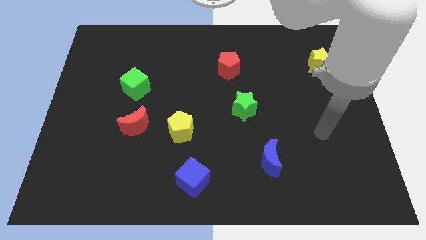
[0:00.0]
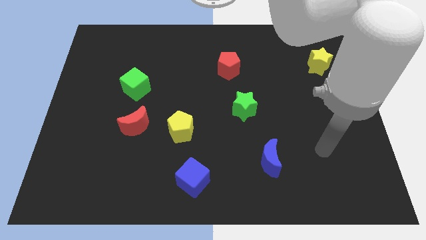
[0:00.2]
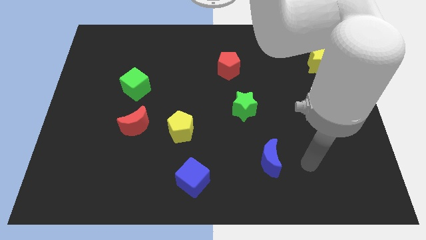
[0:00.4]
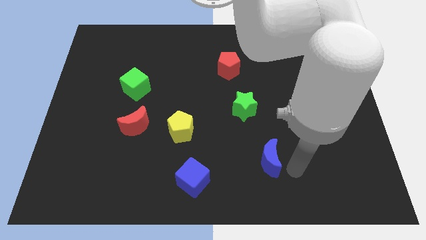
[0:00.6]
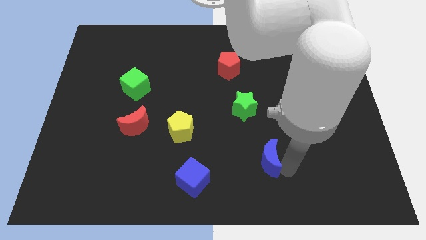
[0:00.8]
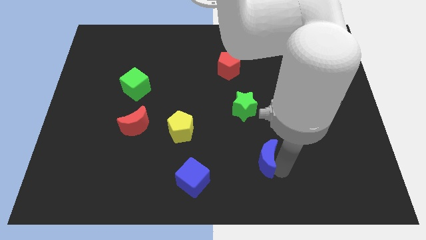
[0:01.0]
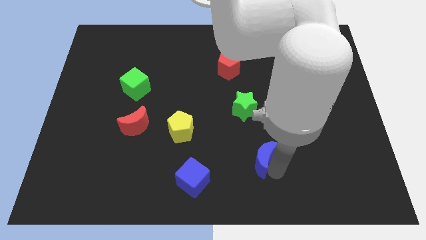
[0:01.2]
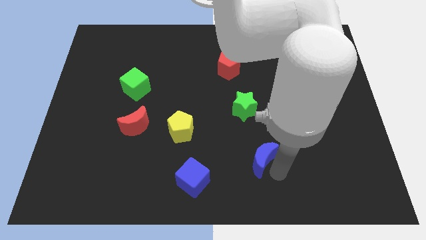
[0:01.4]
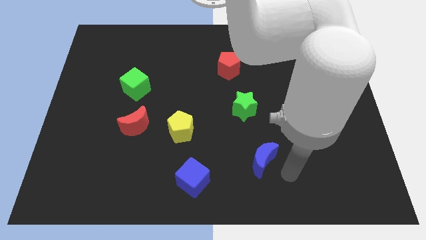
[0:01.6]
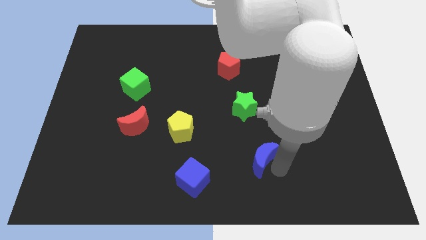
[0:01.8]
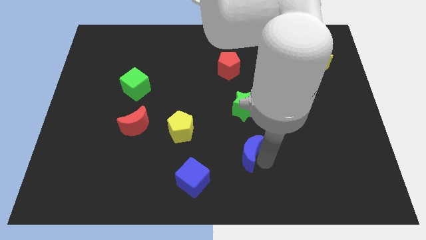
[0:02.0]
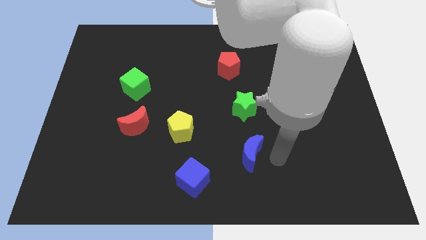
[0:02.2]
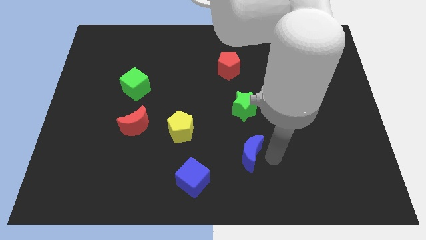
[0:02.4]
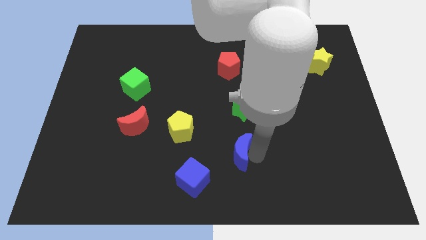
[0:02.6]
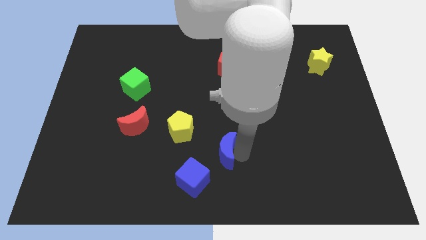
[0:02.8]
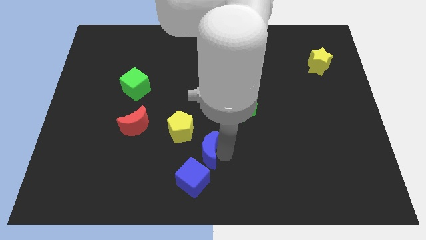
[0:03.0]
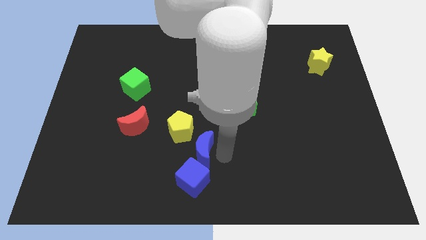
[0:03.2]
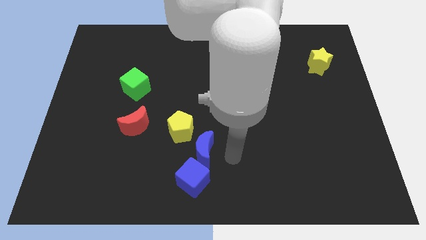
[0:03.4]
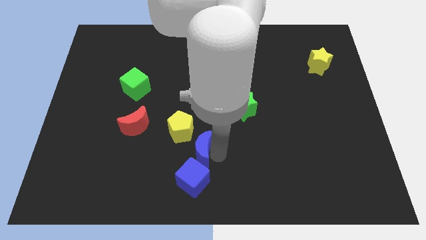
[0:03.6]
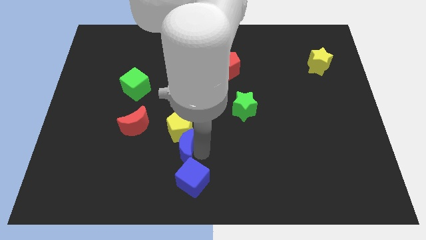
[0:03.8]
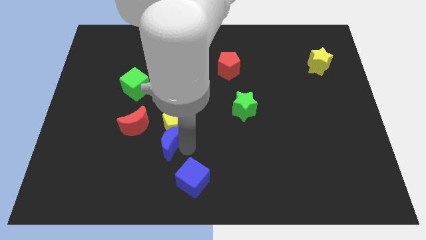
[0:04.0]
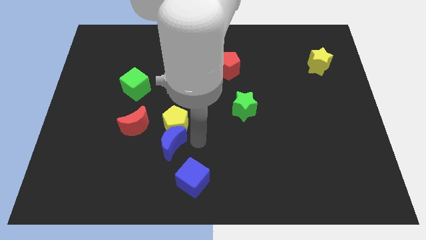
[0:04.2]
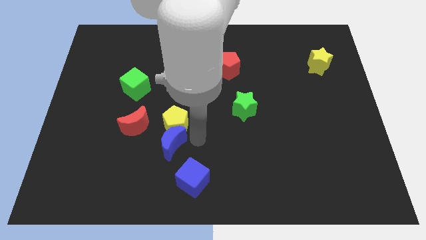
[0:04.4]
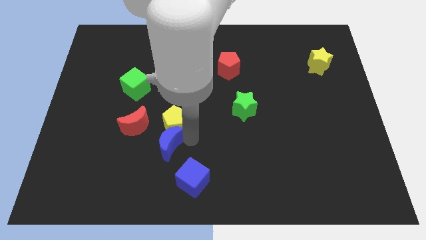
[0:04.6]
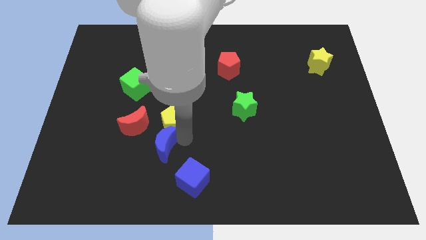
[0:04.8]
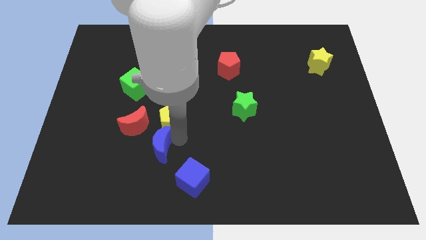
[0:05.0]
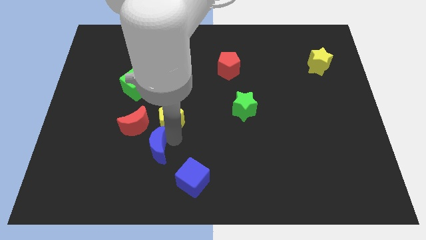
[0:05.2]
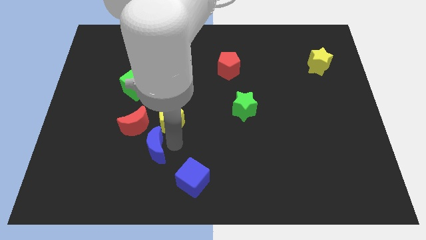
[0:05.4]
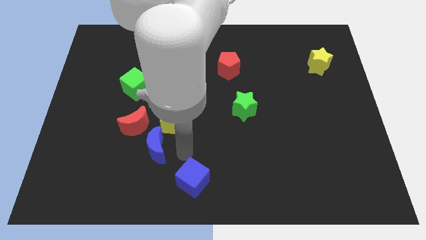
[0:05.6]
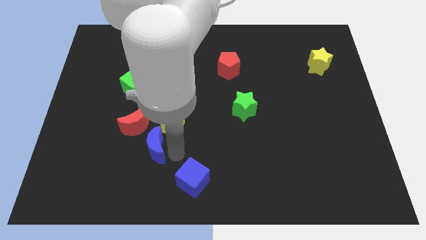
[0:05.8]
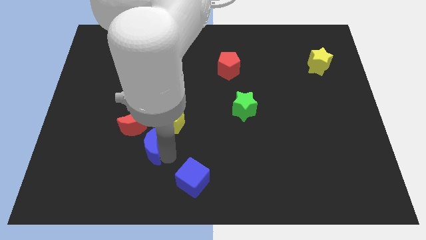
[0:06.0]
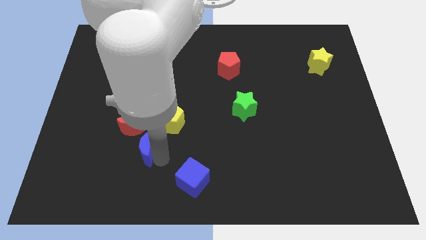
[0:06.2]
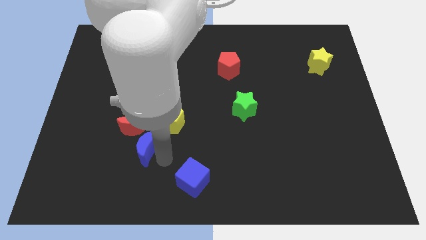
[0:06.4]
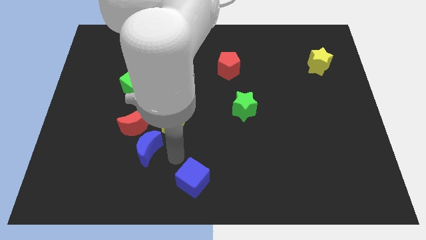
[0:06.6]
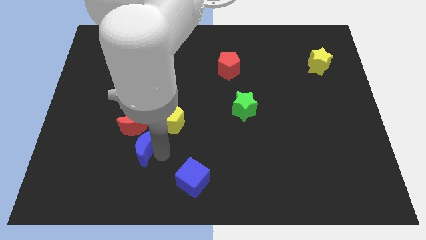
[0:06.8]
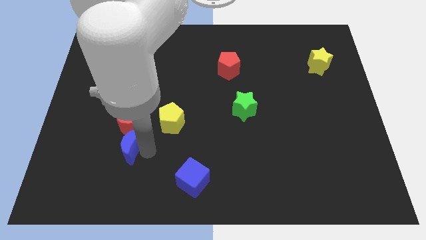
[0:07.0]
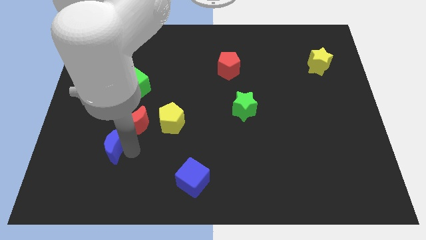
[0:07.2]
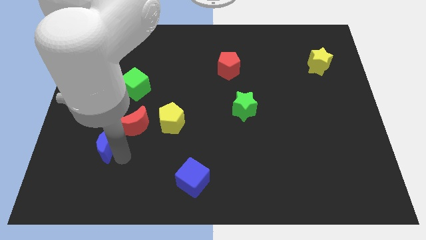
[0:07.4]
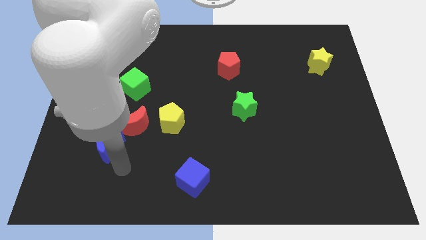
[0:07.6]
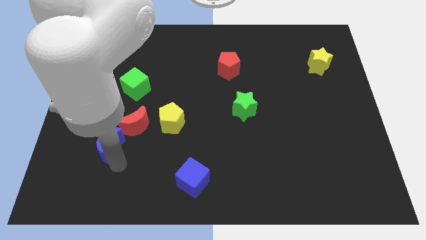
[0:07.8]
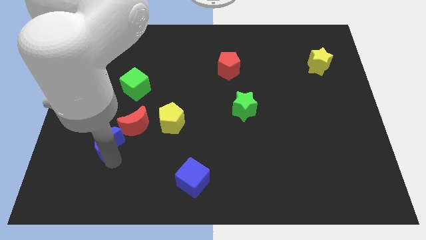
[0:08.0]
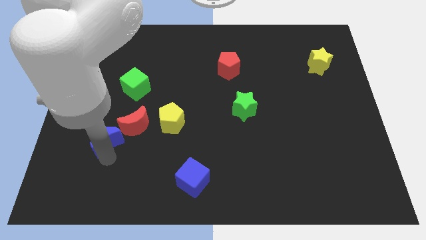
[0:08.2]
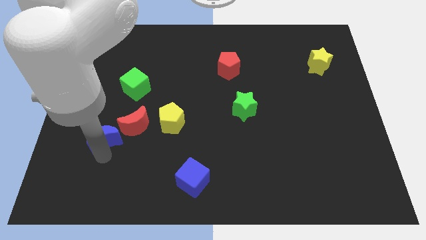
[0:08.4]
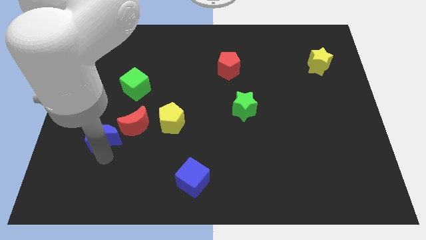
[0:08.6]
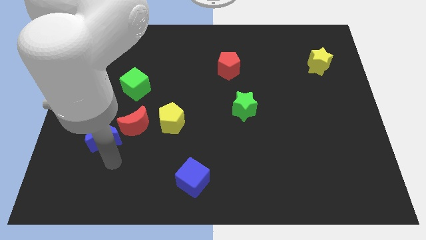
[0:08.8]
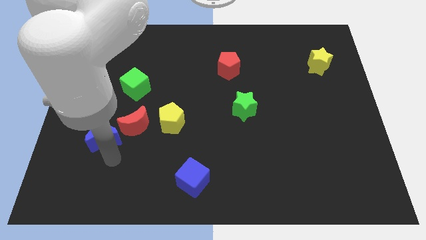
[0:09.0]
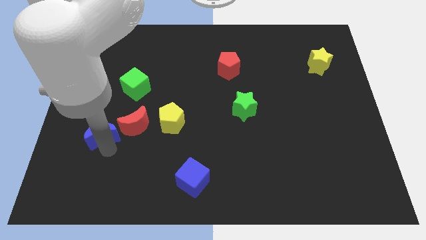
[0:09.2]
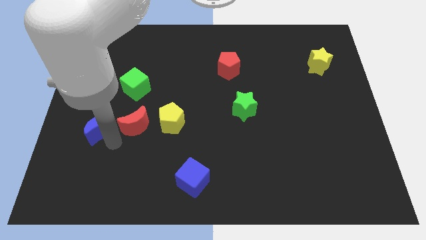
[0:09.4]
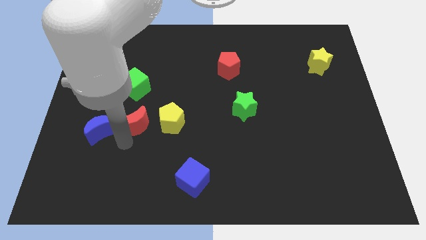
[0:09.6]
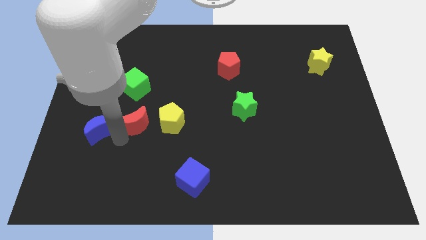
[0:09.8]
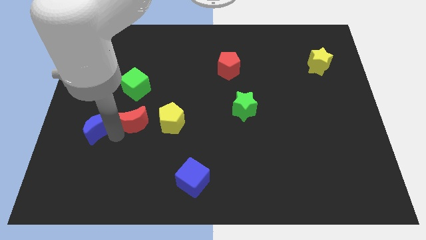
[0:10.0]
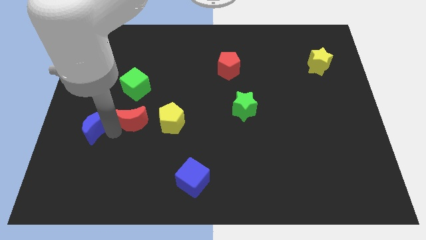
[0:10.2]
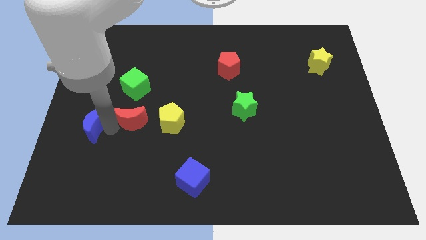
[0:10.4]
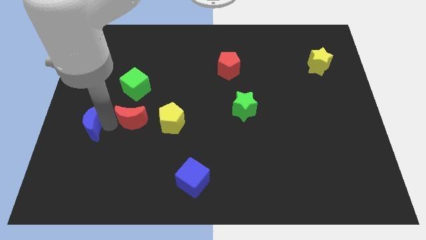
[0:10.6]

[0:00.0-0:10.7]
slide the blue moon to the left side of the board
